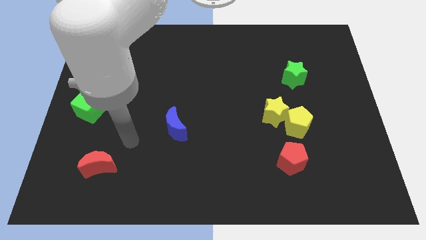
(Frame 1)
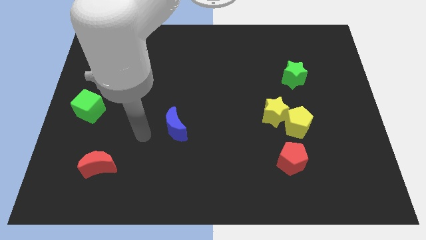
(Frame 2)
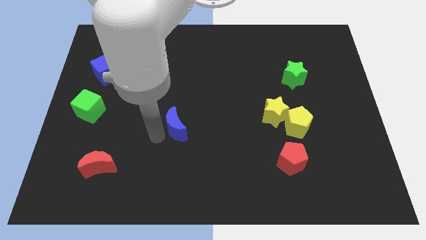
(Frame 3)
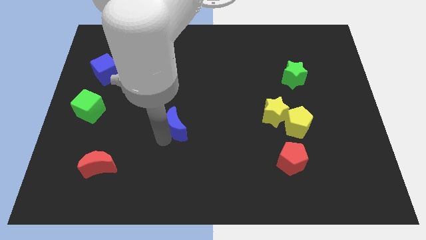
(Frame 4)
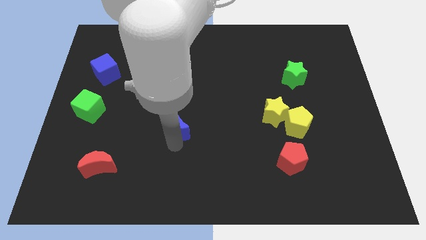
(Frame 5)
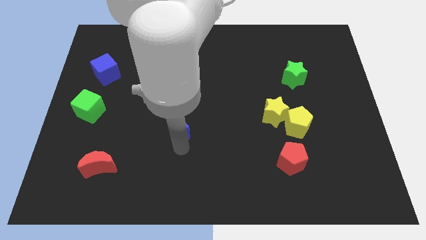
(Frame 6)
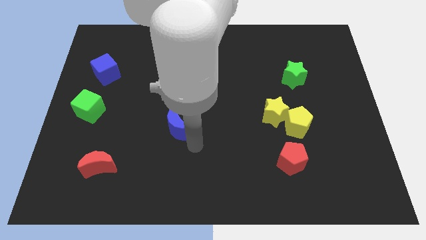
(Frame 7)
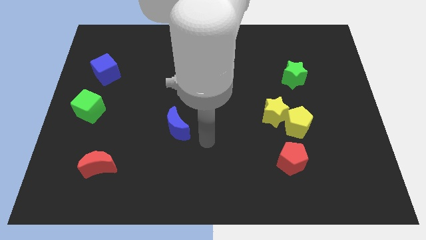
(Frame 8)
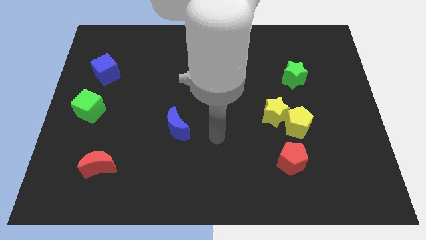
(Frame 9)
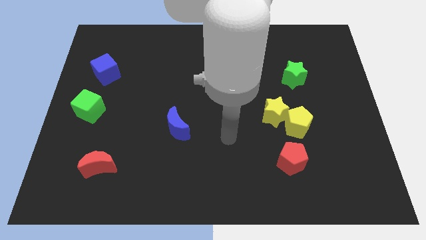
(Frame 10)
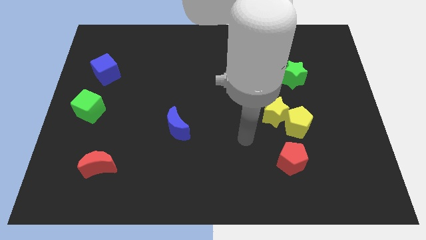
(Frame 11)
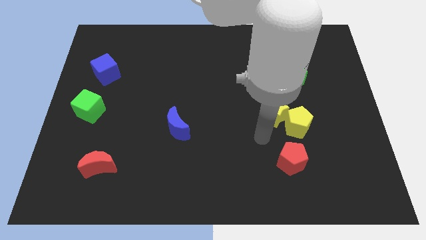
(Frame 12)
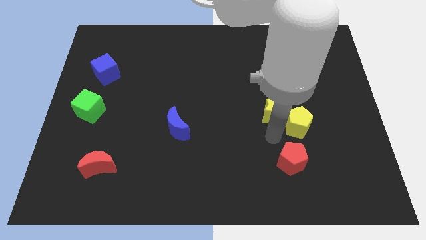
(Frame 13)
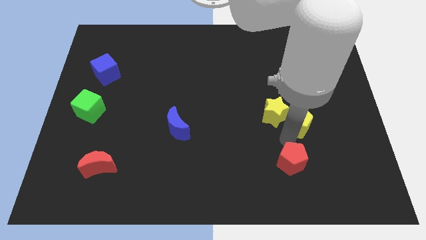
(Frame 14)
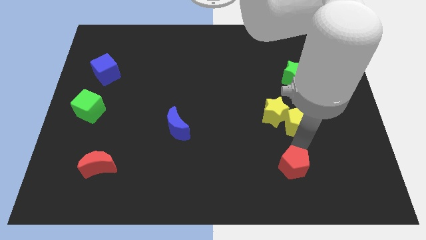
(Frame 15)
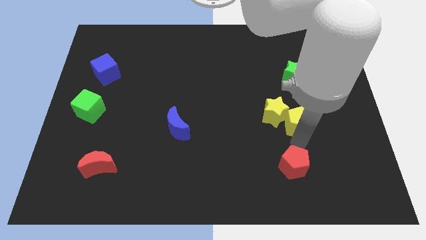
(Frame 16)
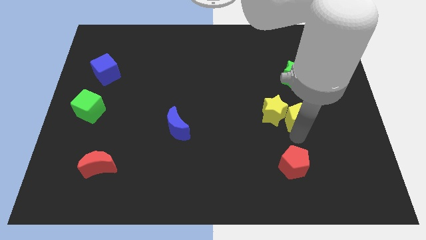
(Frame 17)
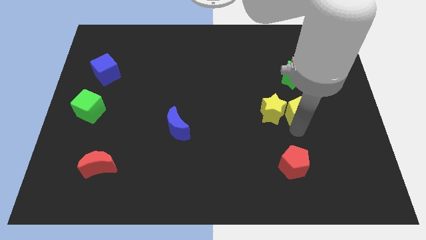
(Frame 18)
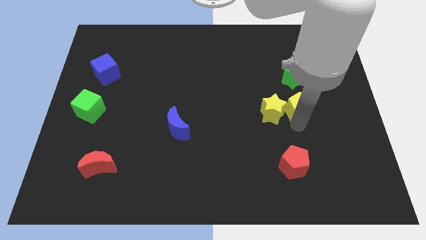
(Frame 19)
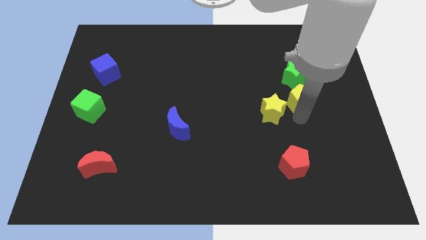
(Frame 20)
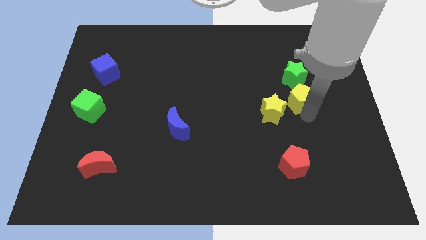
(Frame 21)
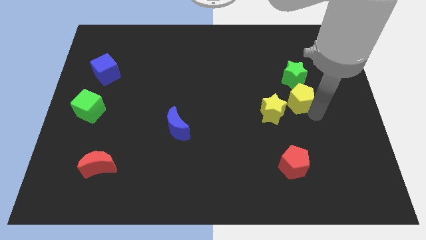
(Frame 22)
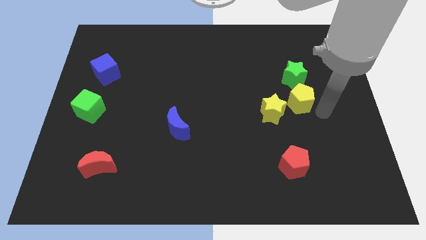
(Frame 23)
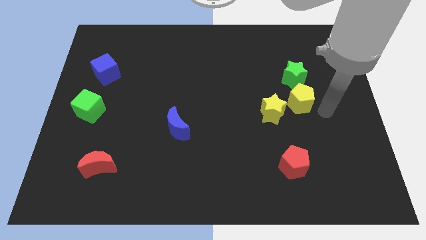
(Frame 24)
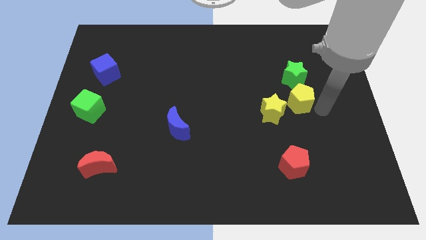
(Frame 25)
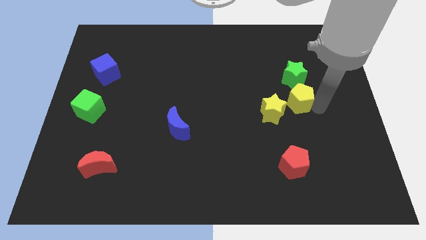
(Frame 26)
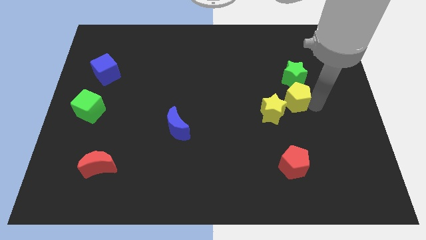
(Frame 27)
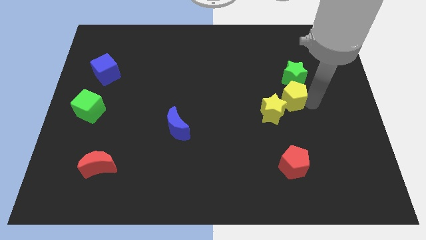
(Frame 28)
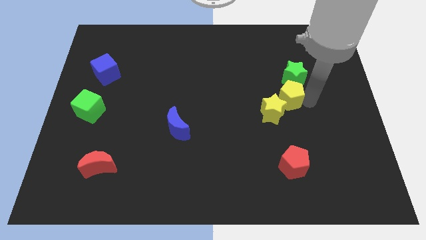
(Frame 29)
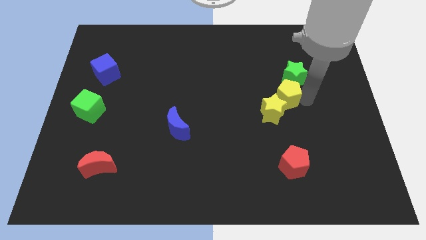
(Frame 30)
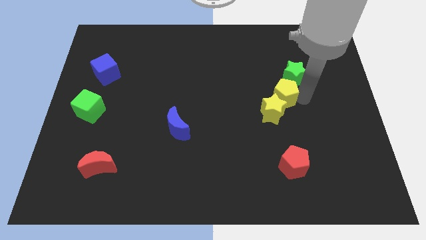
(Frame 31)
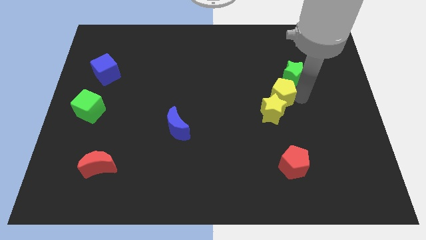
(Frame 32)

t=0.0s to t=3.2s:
slightly slide the yellow pentagon upwards and then to the left

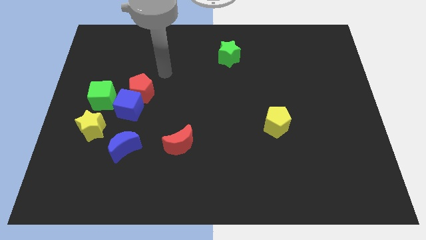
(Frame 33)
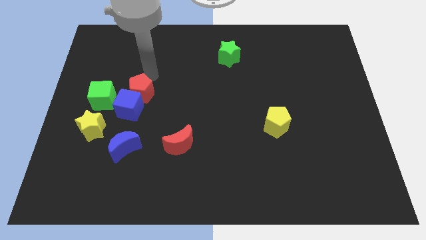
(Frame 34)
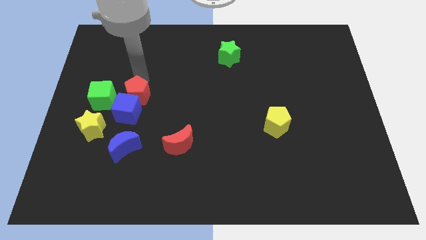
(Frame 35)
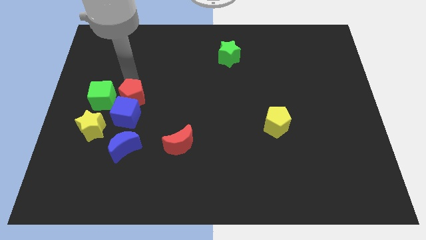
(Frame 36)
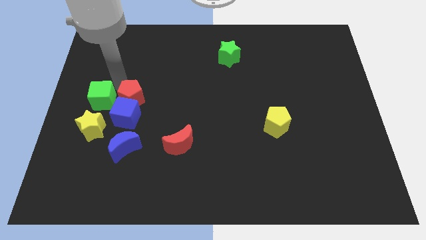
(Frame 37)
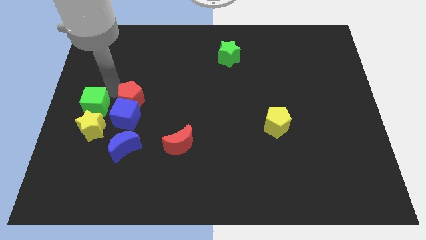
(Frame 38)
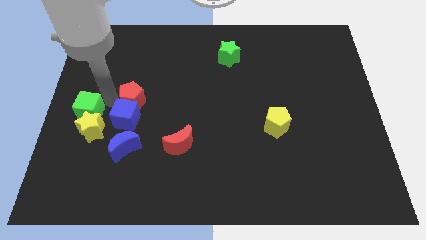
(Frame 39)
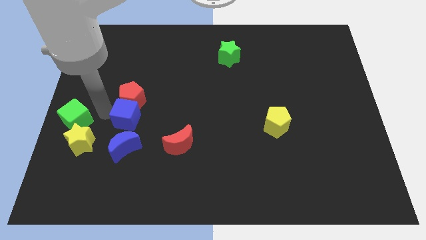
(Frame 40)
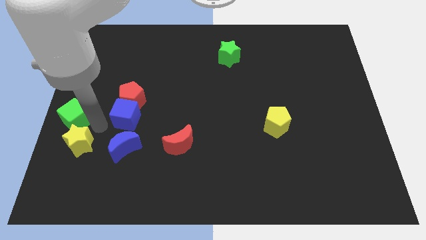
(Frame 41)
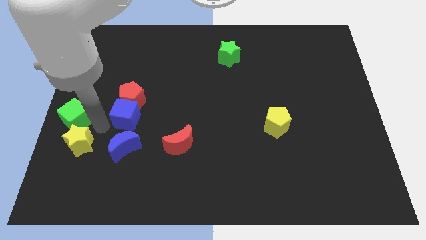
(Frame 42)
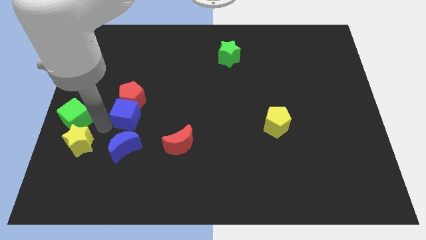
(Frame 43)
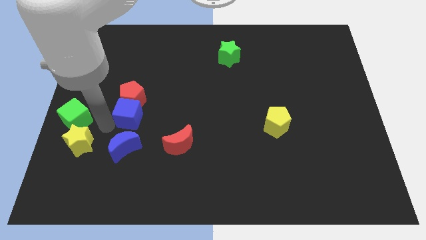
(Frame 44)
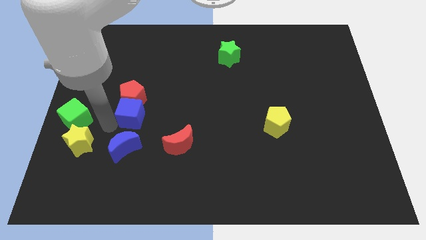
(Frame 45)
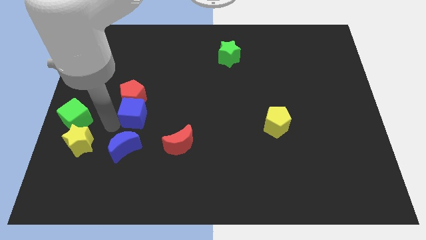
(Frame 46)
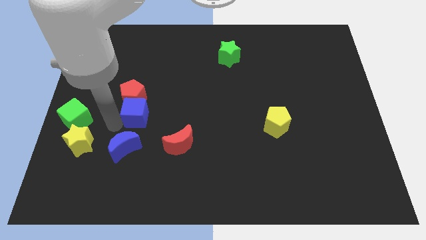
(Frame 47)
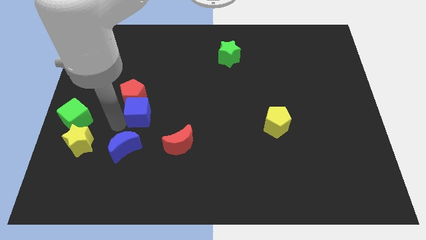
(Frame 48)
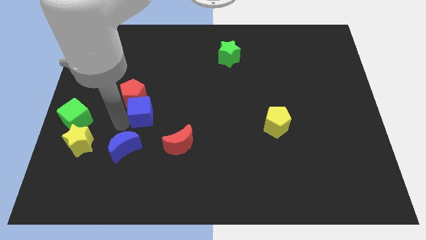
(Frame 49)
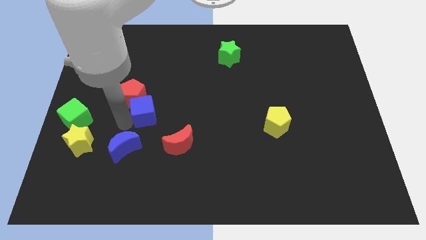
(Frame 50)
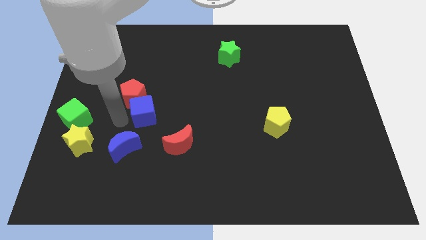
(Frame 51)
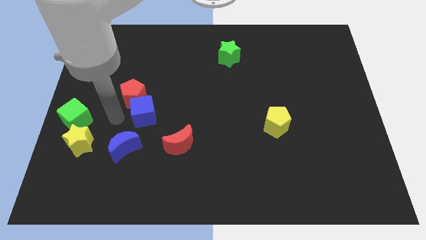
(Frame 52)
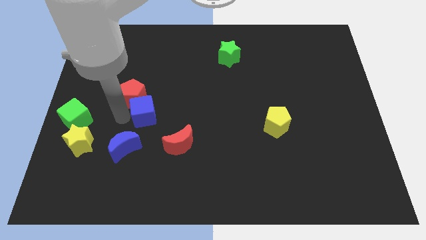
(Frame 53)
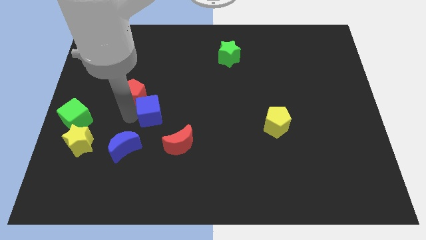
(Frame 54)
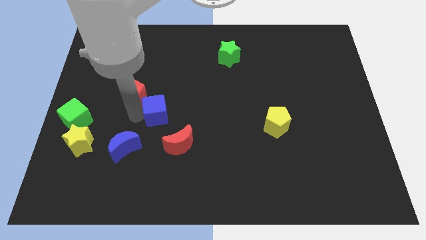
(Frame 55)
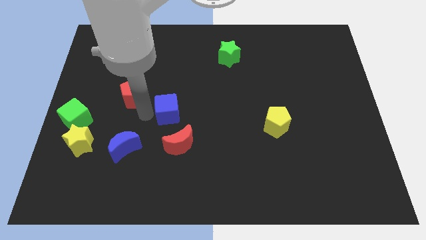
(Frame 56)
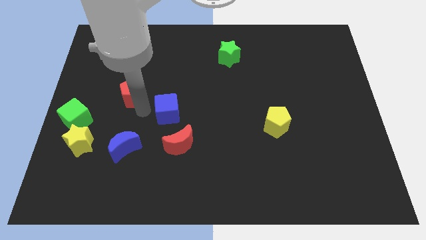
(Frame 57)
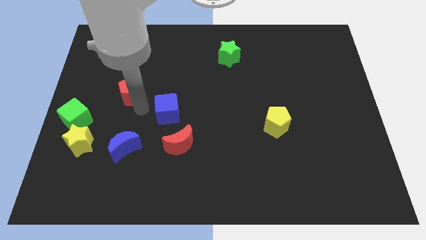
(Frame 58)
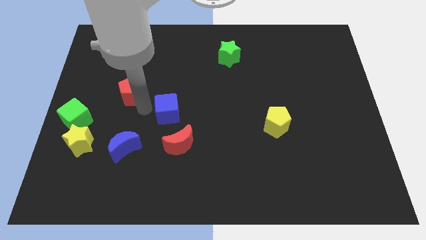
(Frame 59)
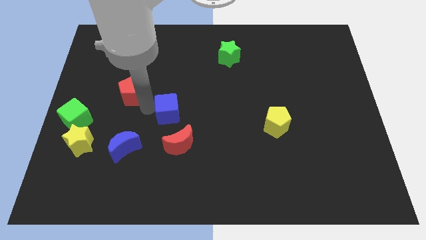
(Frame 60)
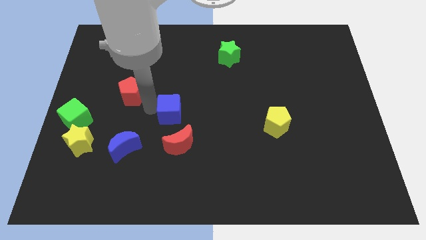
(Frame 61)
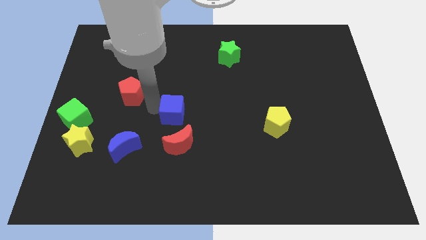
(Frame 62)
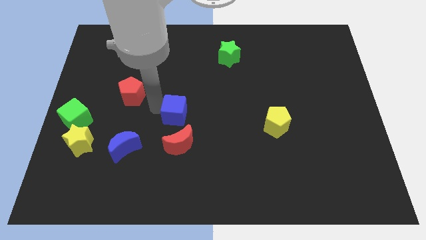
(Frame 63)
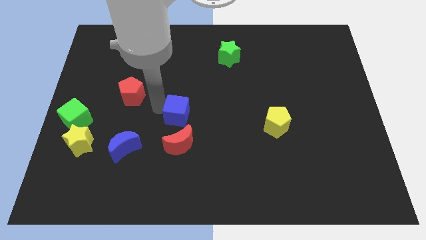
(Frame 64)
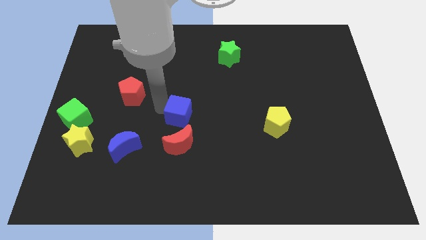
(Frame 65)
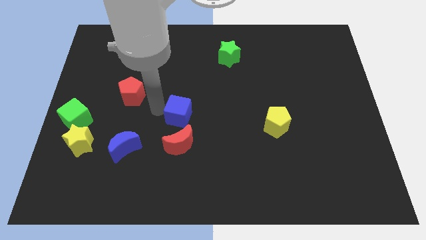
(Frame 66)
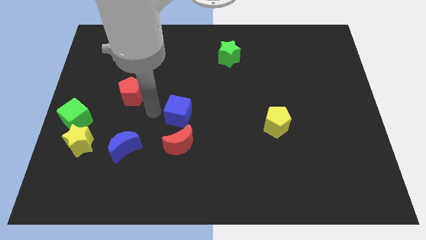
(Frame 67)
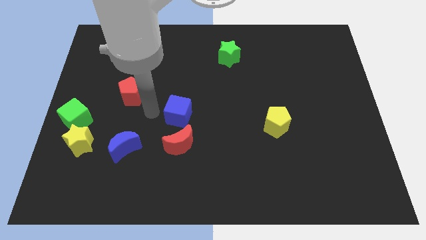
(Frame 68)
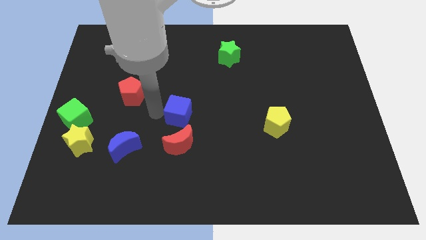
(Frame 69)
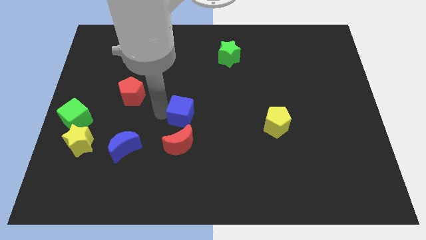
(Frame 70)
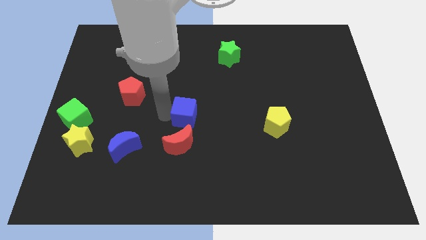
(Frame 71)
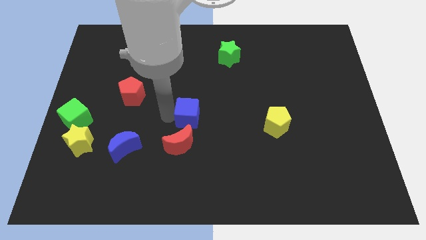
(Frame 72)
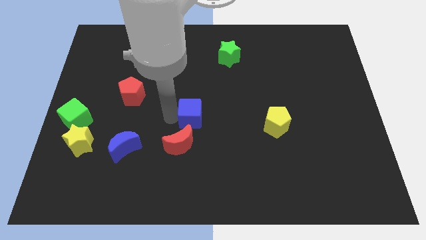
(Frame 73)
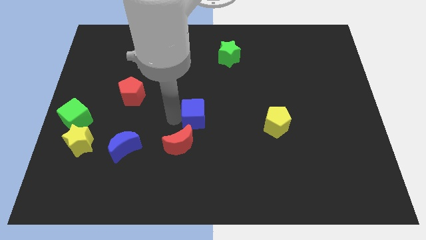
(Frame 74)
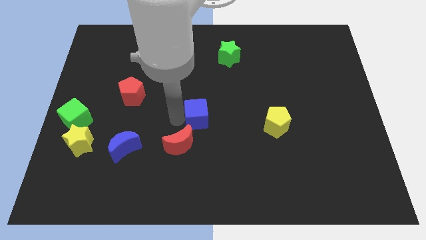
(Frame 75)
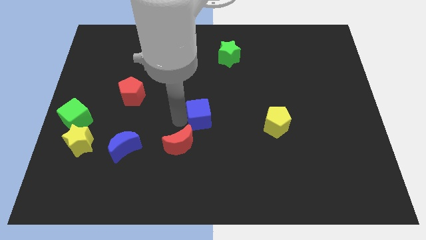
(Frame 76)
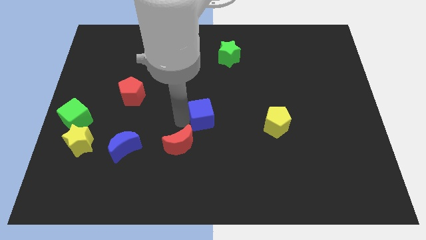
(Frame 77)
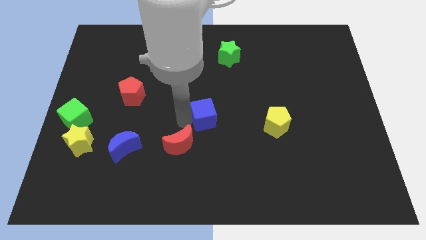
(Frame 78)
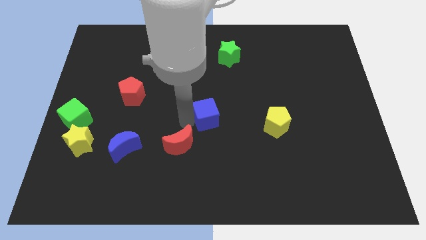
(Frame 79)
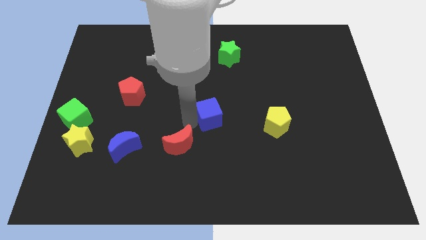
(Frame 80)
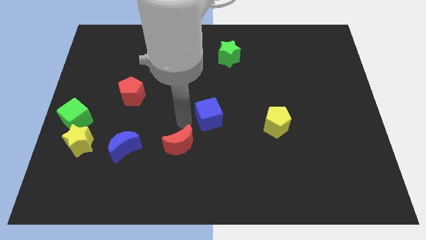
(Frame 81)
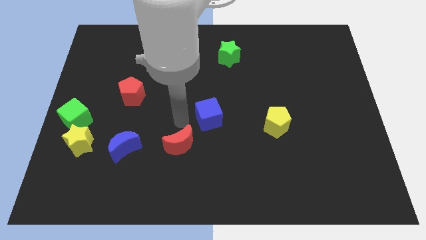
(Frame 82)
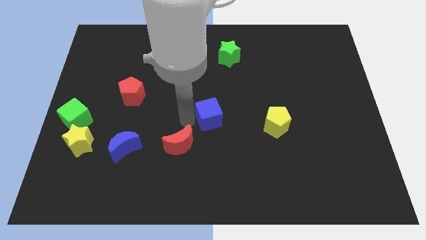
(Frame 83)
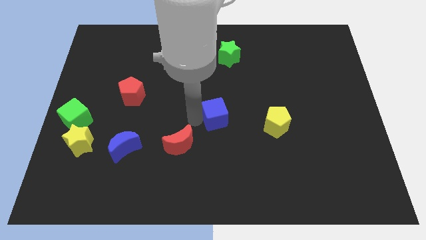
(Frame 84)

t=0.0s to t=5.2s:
slide the blue cube to the right

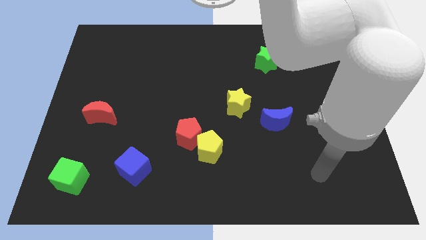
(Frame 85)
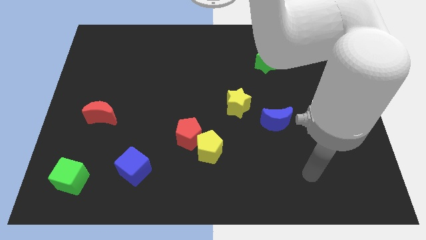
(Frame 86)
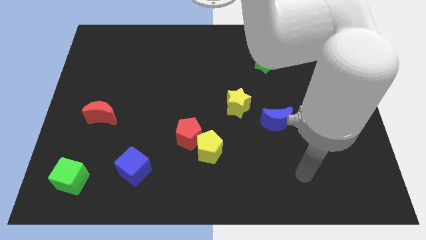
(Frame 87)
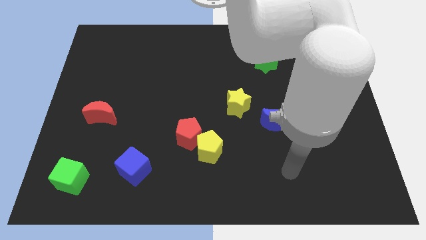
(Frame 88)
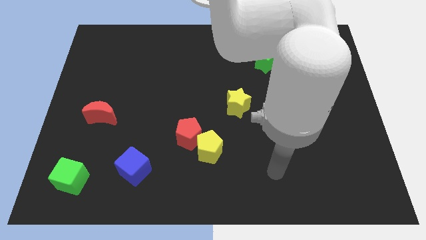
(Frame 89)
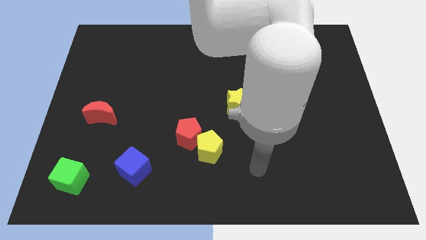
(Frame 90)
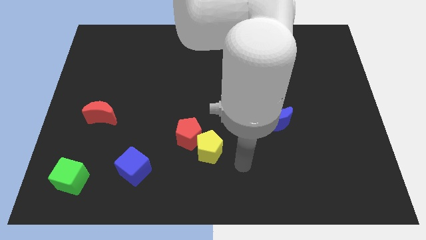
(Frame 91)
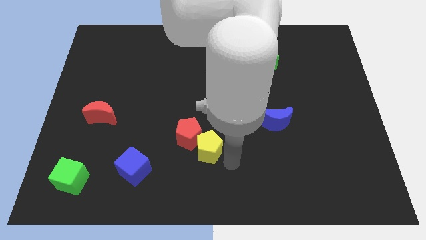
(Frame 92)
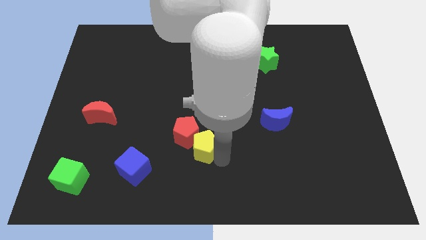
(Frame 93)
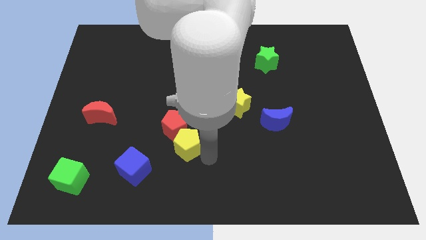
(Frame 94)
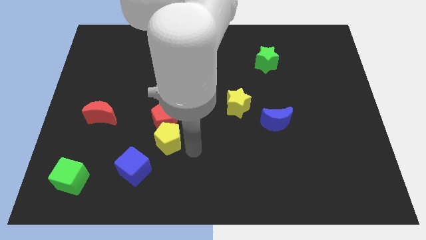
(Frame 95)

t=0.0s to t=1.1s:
move the red pentagon upwards and to the left a bit
